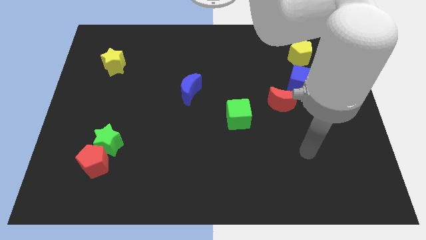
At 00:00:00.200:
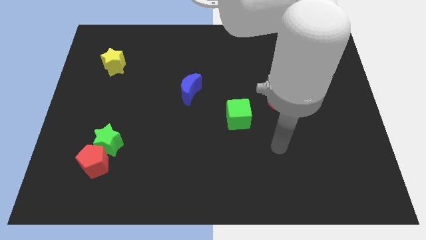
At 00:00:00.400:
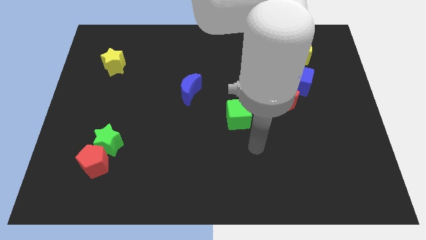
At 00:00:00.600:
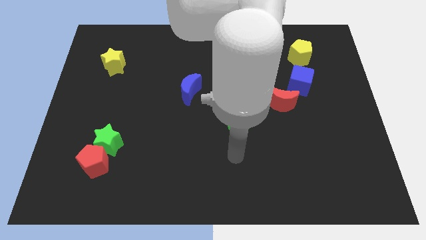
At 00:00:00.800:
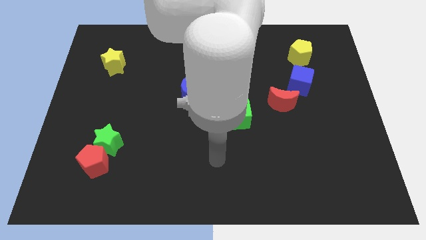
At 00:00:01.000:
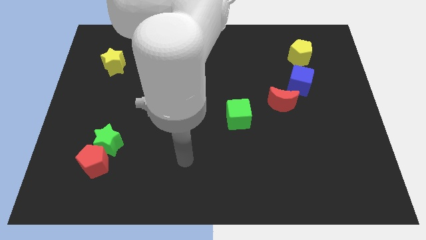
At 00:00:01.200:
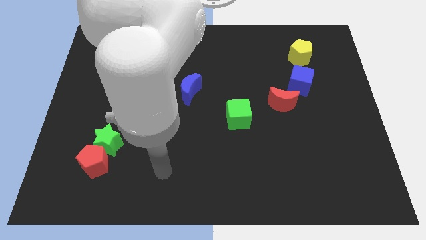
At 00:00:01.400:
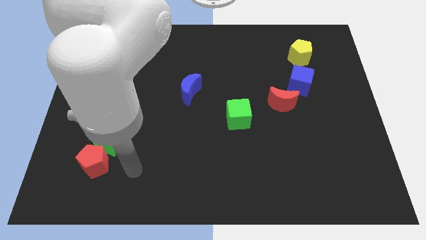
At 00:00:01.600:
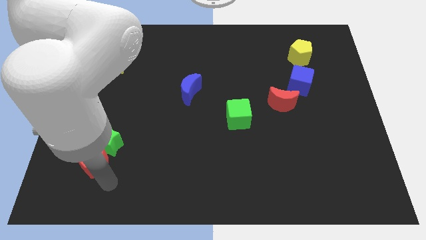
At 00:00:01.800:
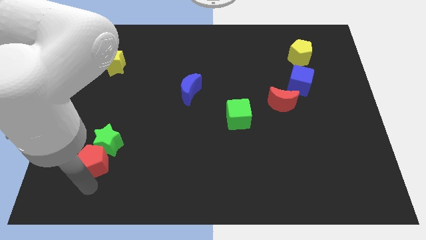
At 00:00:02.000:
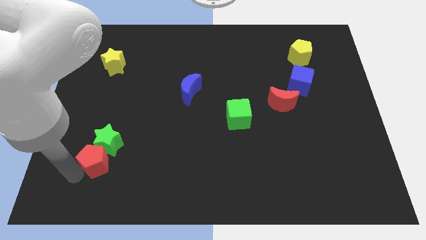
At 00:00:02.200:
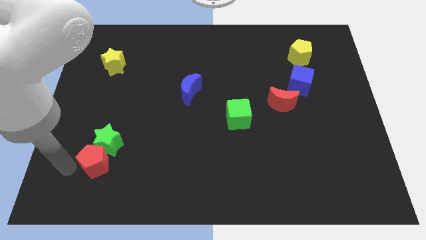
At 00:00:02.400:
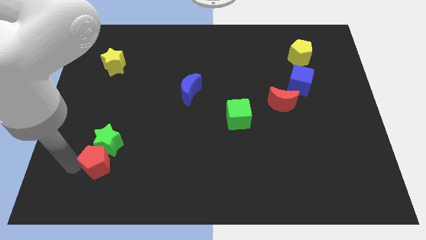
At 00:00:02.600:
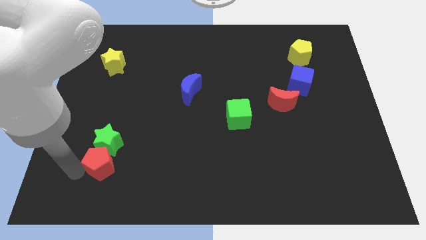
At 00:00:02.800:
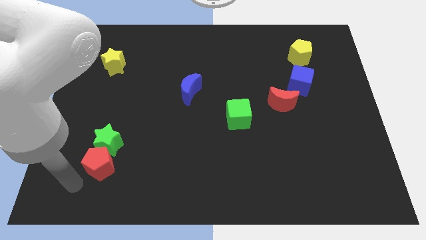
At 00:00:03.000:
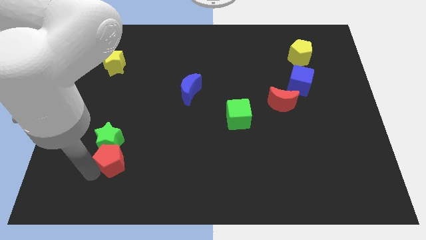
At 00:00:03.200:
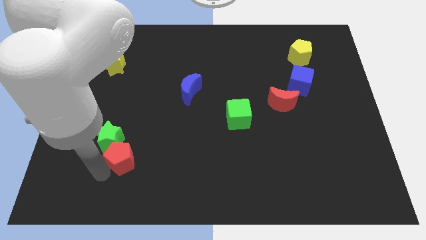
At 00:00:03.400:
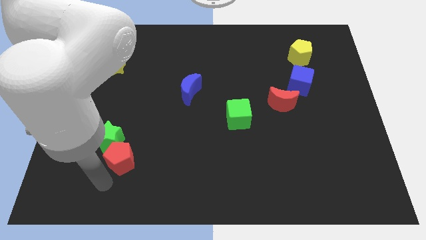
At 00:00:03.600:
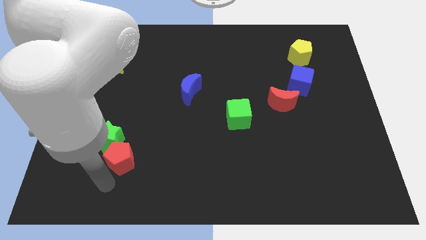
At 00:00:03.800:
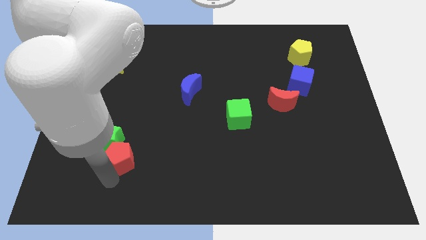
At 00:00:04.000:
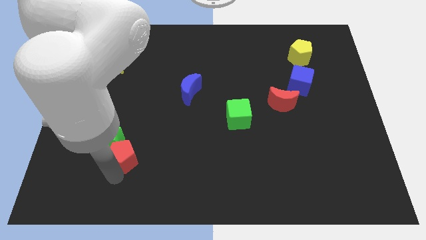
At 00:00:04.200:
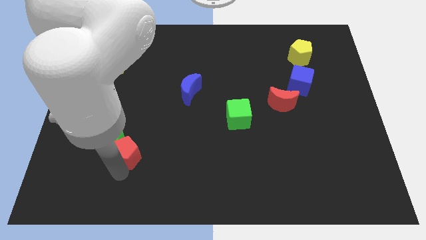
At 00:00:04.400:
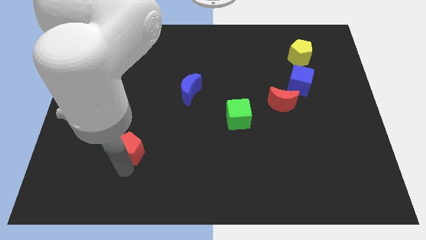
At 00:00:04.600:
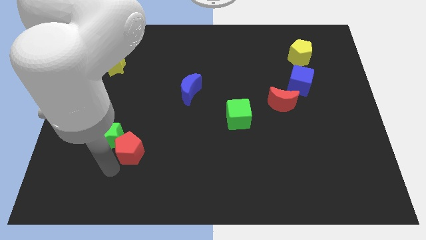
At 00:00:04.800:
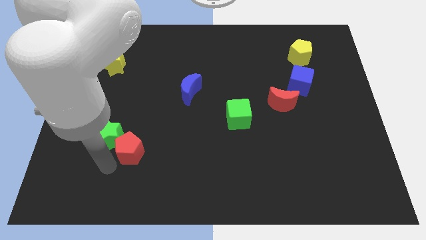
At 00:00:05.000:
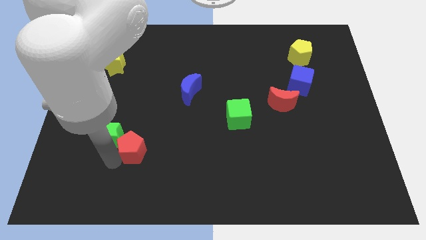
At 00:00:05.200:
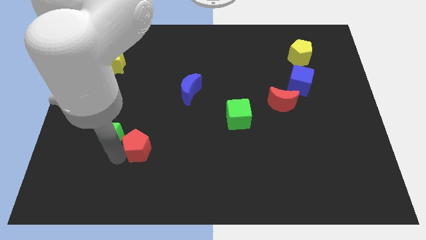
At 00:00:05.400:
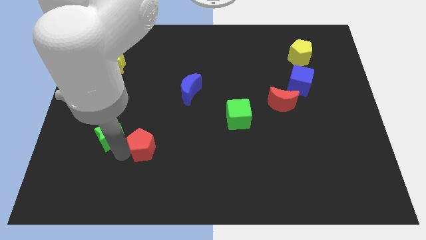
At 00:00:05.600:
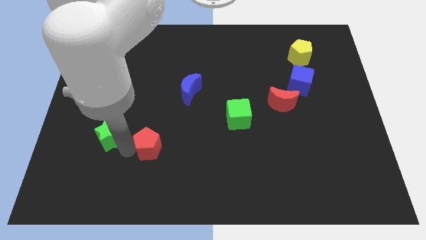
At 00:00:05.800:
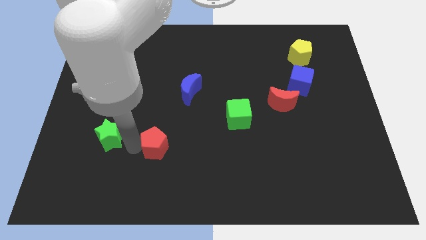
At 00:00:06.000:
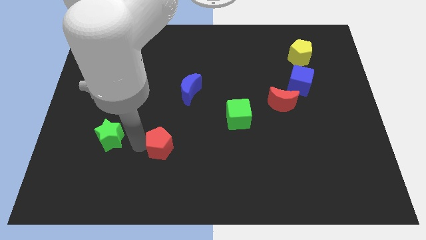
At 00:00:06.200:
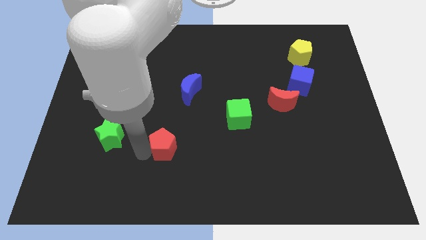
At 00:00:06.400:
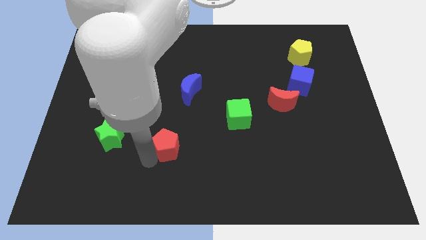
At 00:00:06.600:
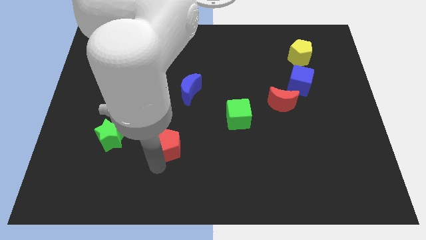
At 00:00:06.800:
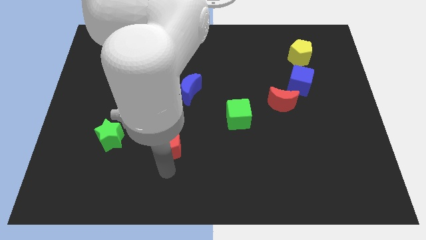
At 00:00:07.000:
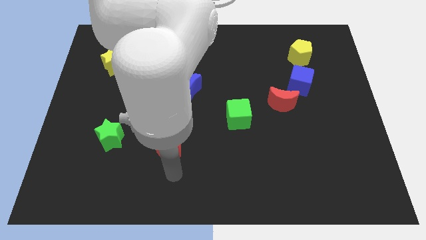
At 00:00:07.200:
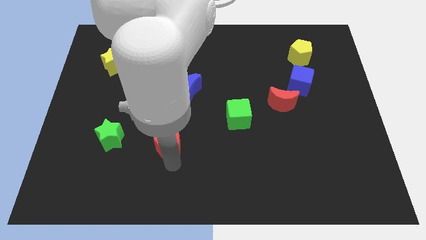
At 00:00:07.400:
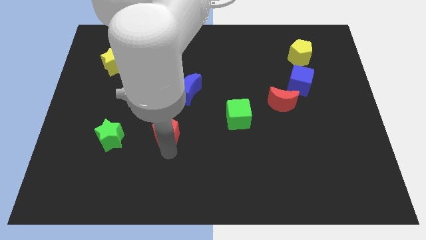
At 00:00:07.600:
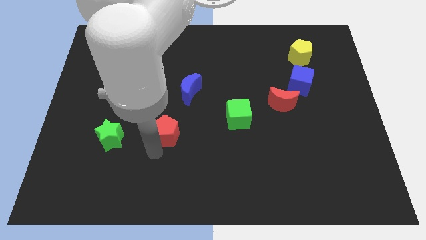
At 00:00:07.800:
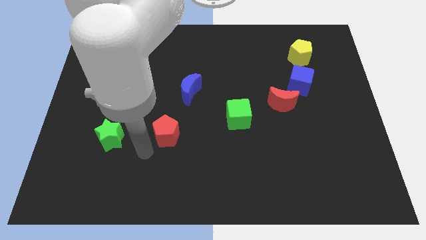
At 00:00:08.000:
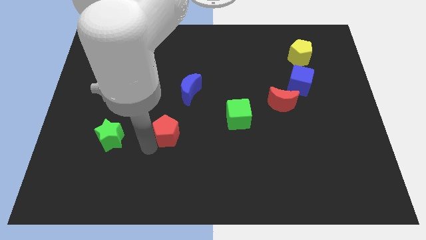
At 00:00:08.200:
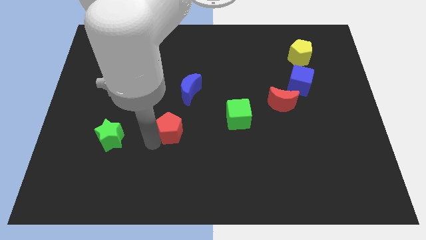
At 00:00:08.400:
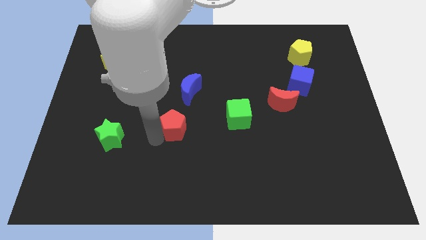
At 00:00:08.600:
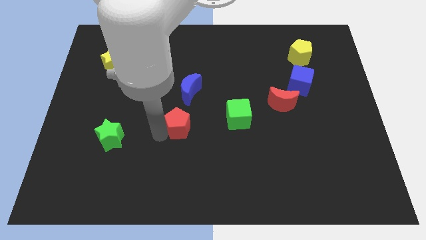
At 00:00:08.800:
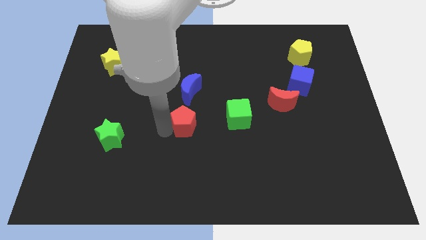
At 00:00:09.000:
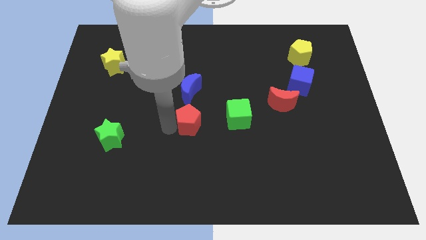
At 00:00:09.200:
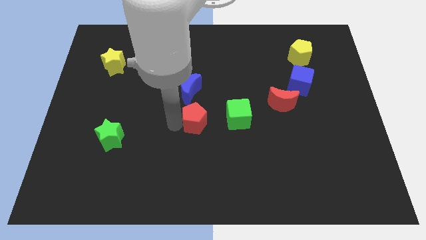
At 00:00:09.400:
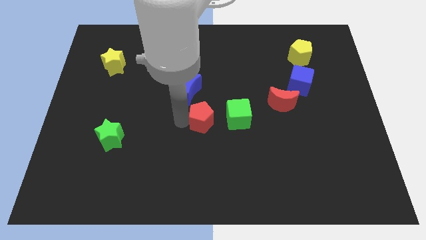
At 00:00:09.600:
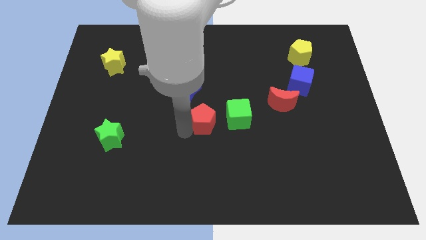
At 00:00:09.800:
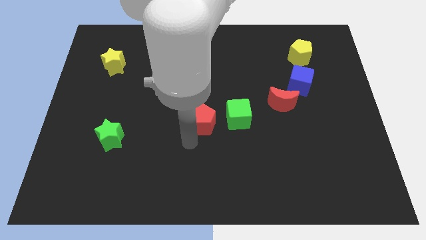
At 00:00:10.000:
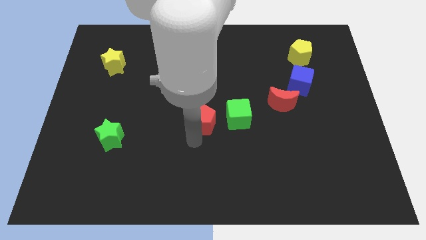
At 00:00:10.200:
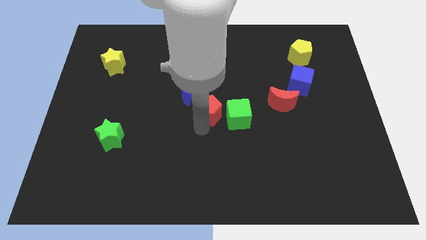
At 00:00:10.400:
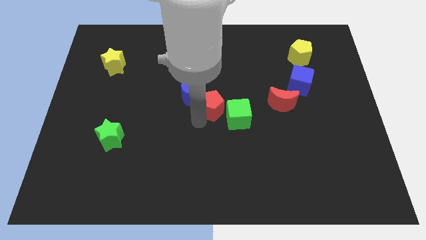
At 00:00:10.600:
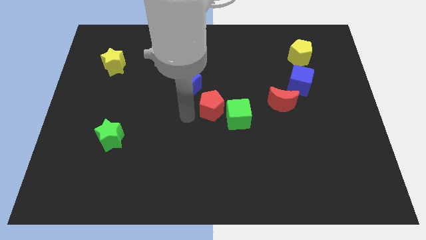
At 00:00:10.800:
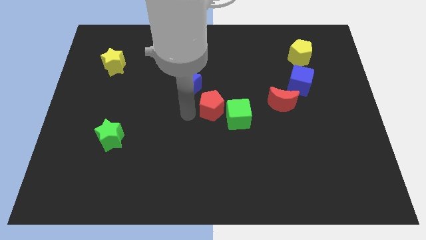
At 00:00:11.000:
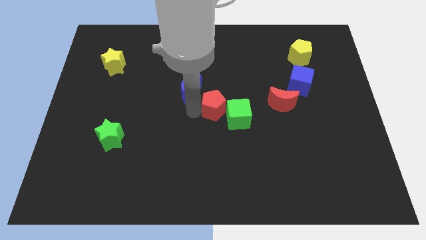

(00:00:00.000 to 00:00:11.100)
push the red pentagon to the left side of the red moon

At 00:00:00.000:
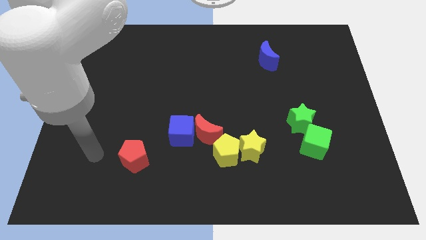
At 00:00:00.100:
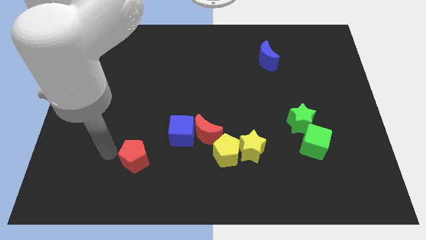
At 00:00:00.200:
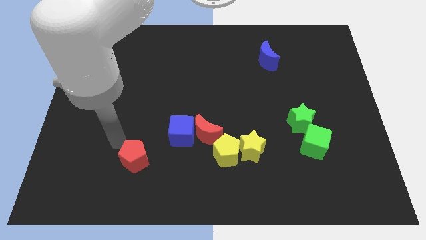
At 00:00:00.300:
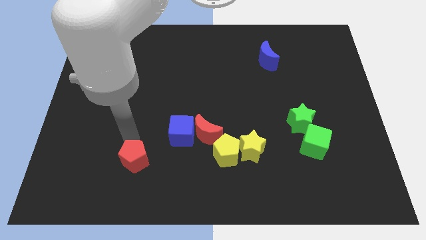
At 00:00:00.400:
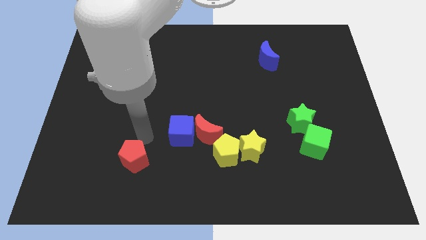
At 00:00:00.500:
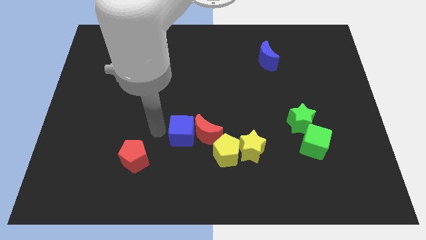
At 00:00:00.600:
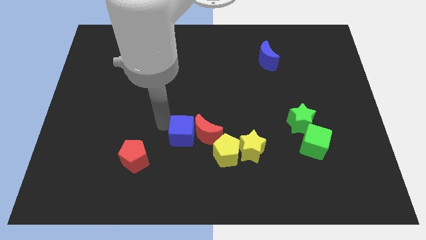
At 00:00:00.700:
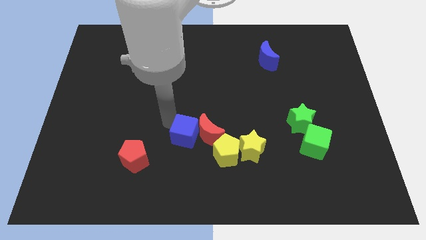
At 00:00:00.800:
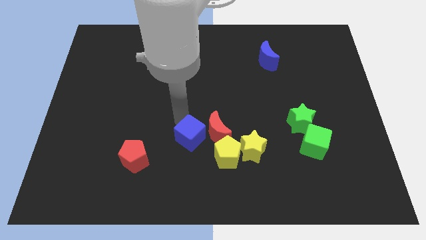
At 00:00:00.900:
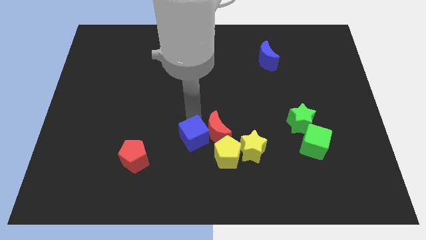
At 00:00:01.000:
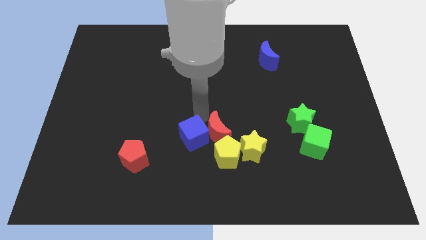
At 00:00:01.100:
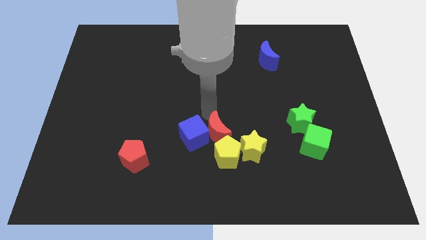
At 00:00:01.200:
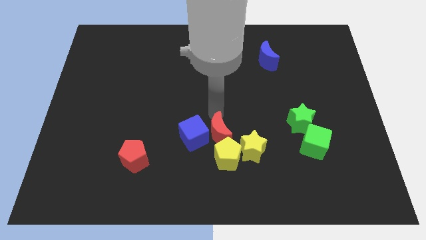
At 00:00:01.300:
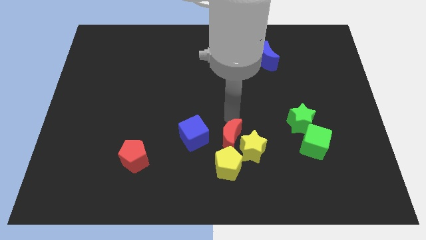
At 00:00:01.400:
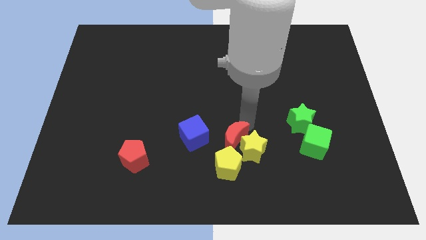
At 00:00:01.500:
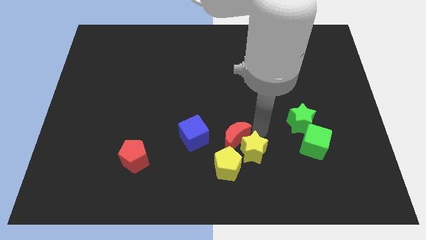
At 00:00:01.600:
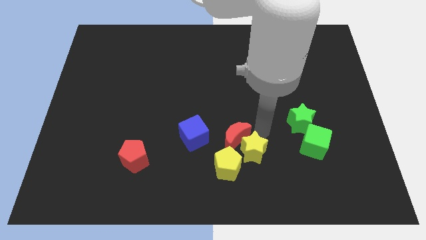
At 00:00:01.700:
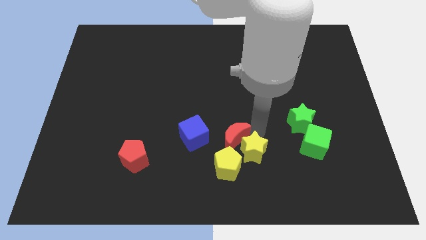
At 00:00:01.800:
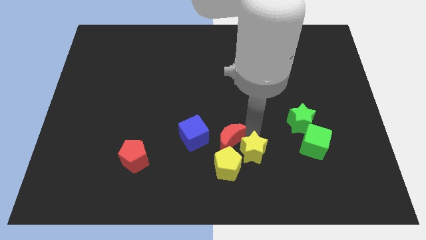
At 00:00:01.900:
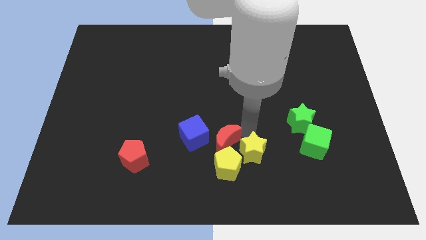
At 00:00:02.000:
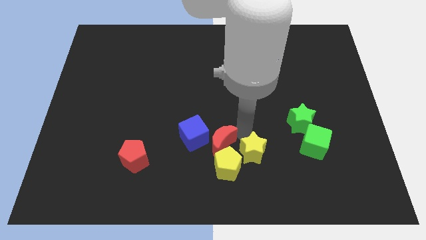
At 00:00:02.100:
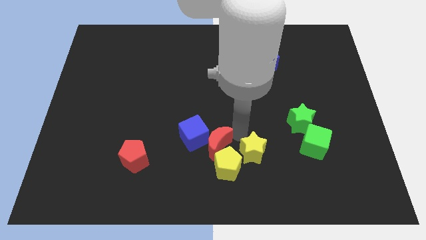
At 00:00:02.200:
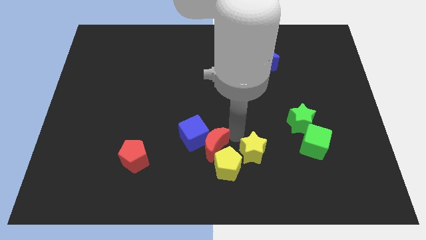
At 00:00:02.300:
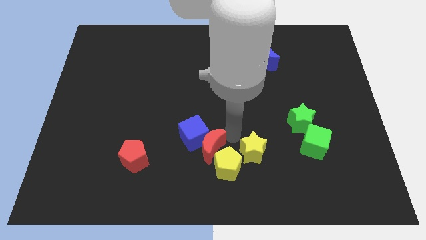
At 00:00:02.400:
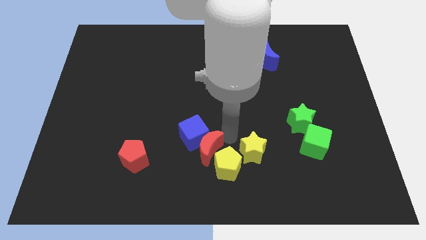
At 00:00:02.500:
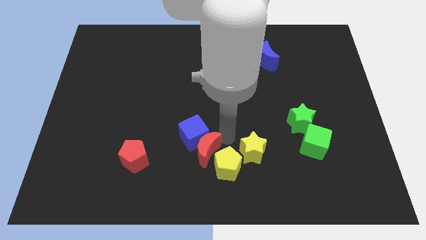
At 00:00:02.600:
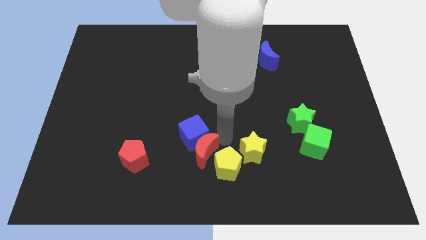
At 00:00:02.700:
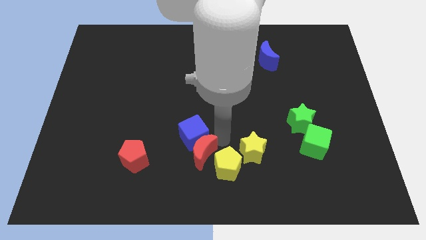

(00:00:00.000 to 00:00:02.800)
put the red moon to the bottom left side of the blue cube
